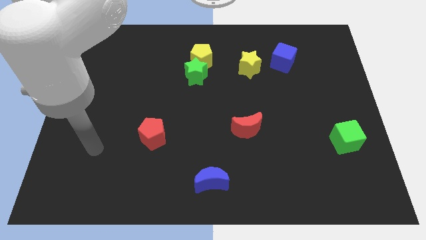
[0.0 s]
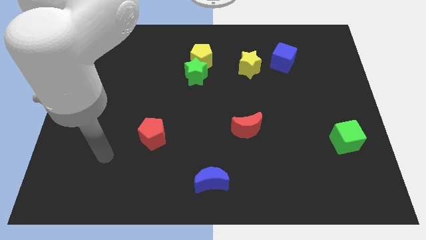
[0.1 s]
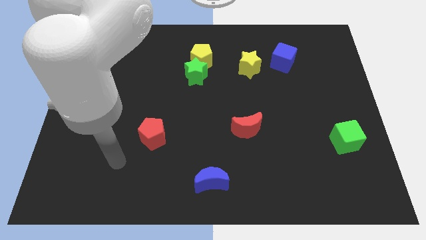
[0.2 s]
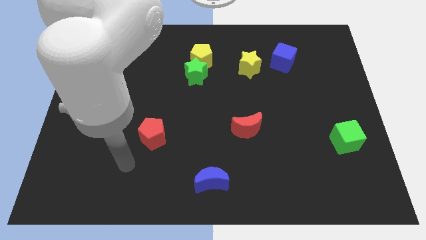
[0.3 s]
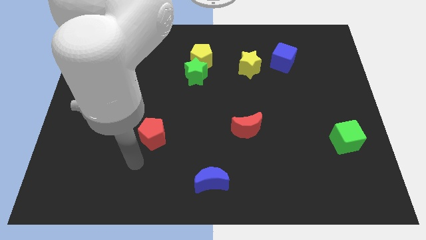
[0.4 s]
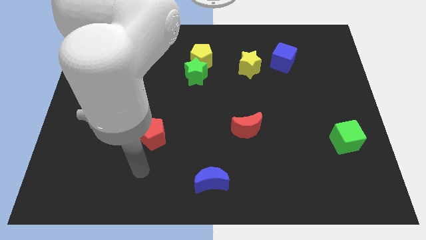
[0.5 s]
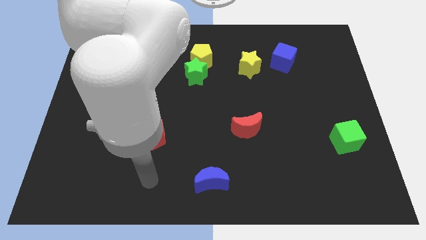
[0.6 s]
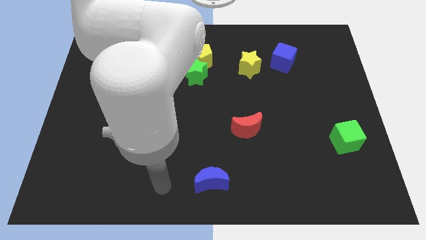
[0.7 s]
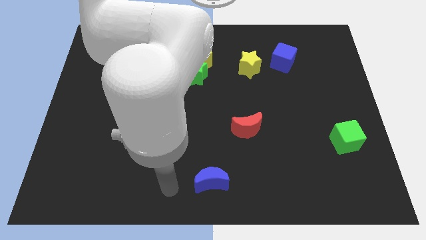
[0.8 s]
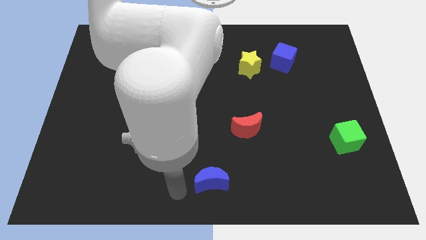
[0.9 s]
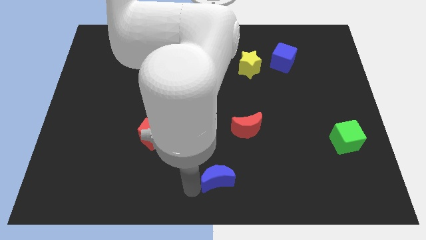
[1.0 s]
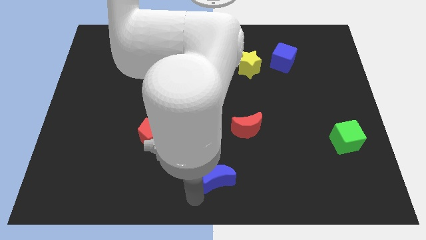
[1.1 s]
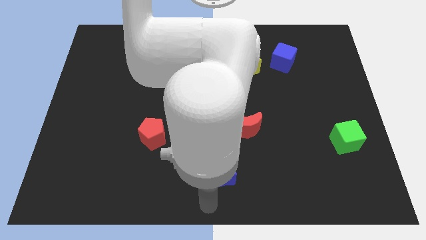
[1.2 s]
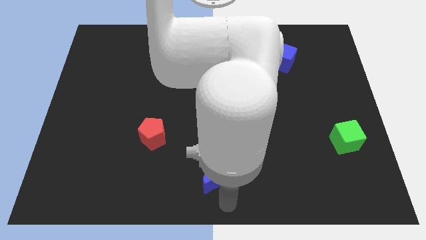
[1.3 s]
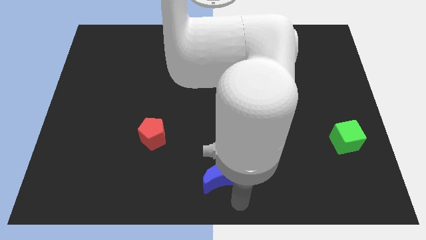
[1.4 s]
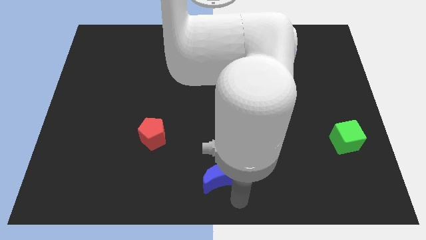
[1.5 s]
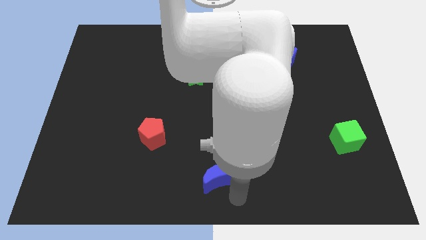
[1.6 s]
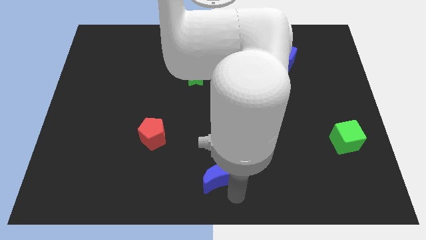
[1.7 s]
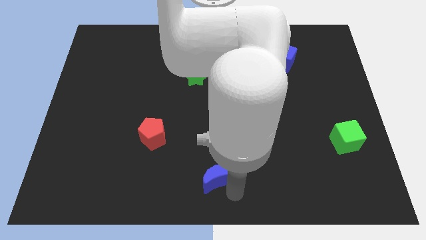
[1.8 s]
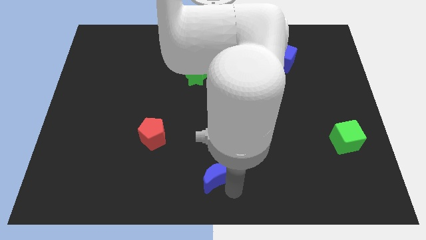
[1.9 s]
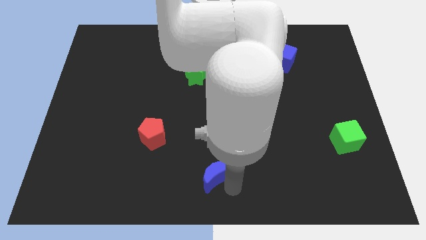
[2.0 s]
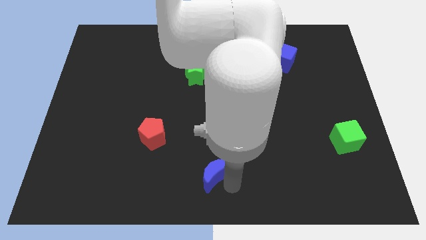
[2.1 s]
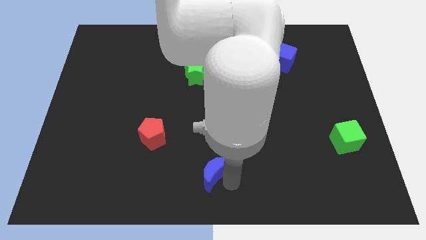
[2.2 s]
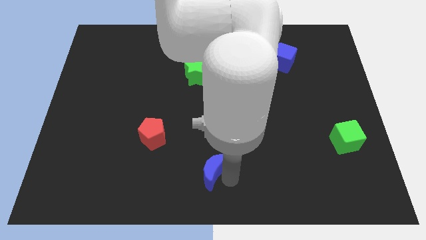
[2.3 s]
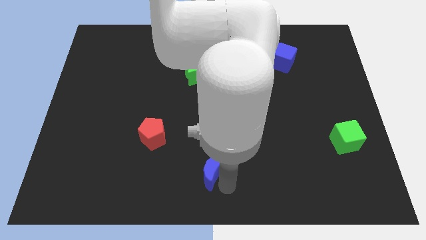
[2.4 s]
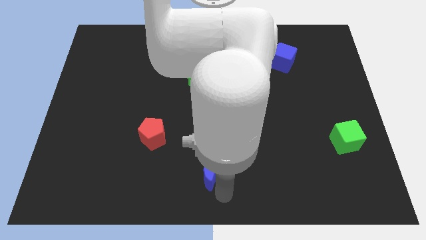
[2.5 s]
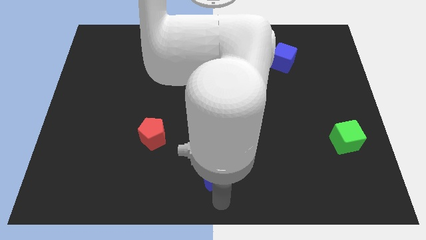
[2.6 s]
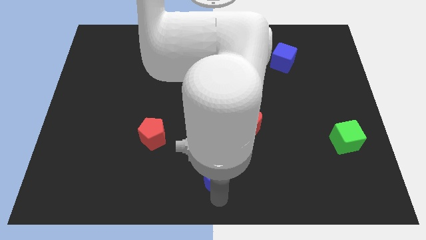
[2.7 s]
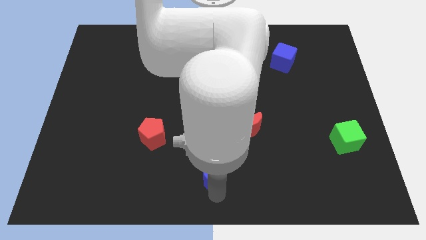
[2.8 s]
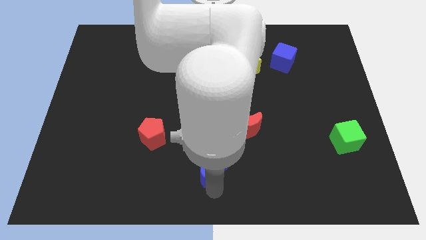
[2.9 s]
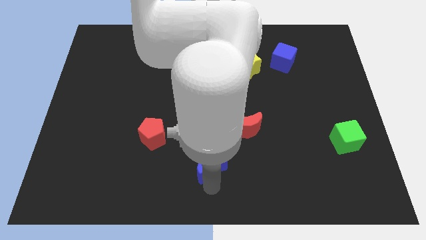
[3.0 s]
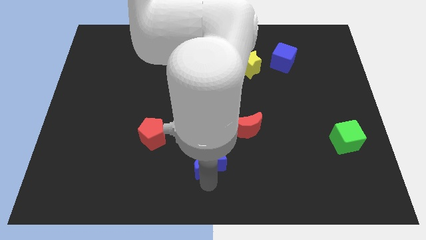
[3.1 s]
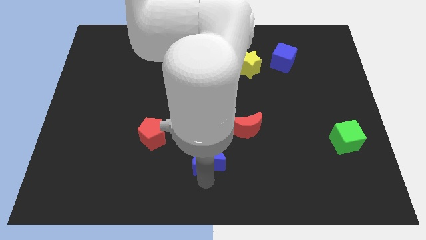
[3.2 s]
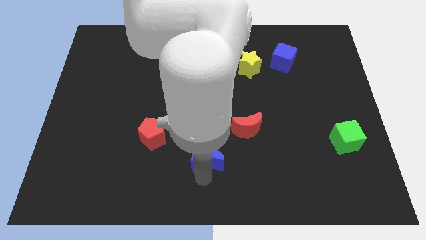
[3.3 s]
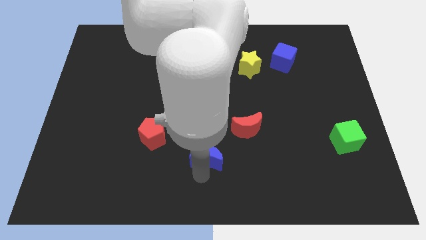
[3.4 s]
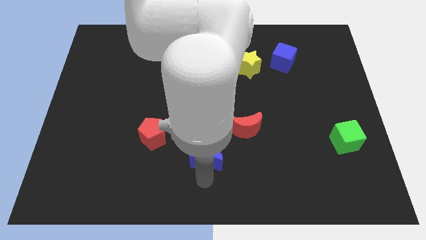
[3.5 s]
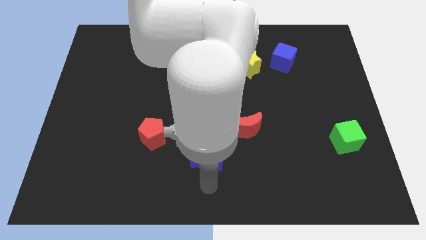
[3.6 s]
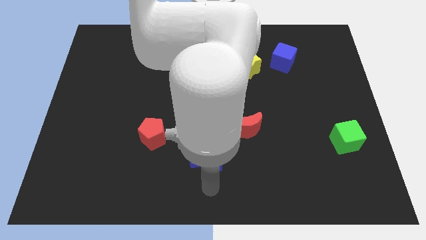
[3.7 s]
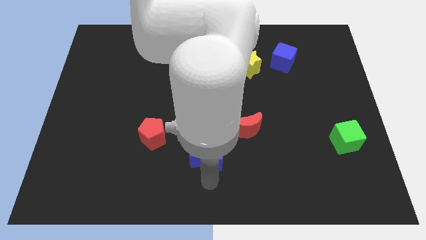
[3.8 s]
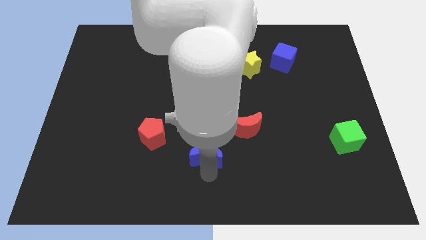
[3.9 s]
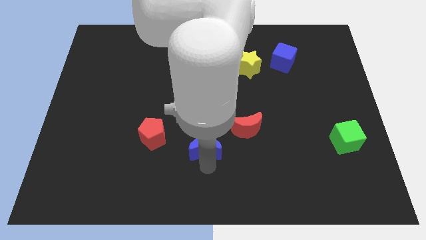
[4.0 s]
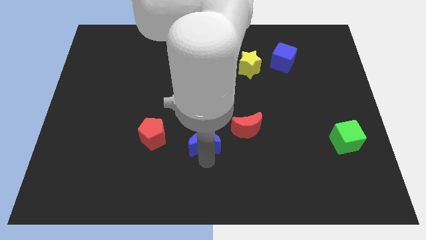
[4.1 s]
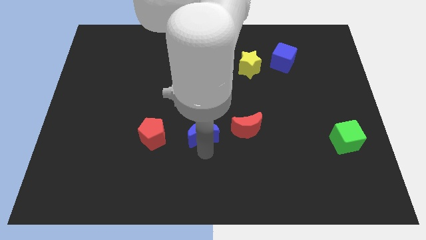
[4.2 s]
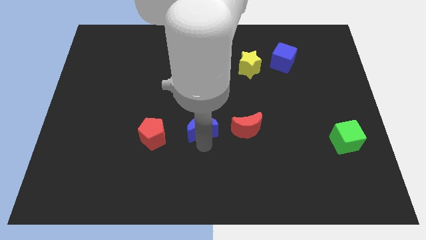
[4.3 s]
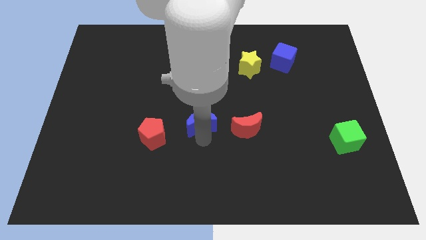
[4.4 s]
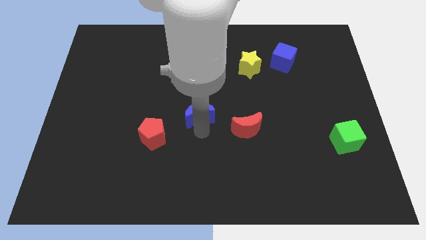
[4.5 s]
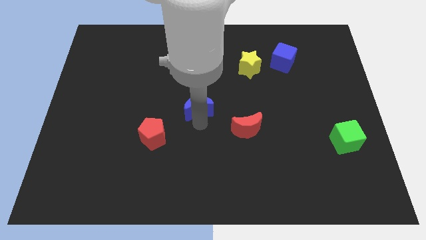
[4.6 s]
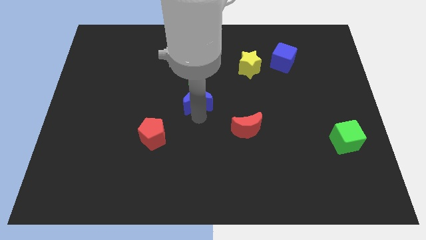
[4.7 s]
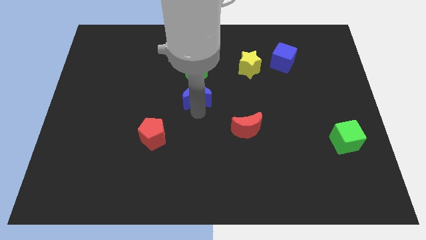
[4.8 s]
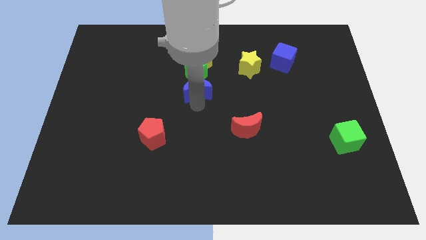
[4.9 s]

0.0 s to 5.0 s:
slide the blue moon to the green star

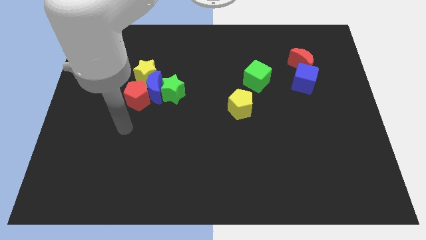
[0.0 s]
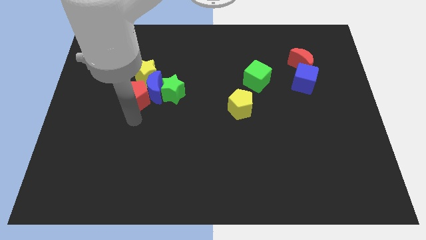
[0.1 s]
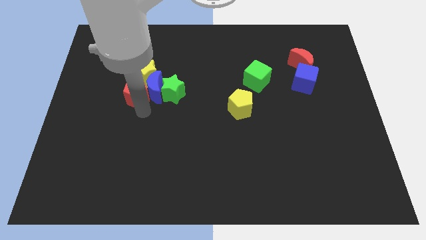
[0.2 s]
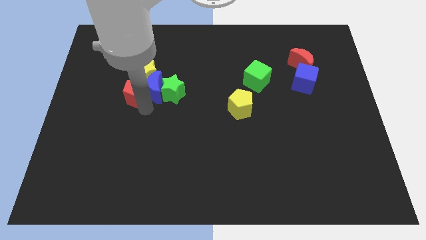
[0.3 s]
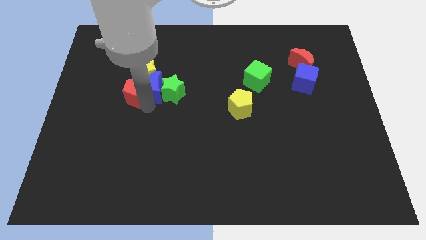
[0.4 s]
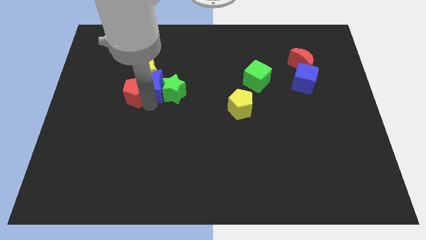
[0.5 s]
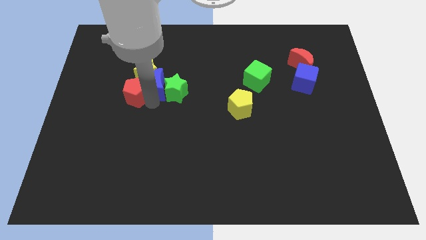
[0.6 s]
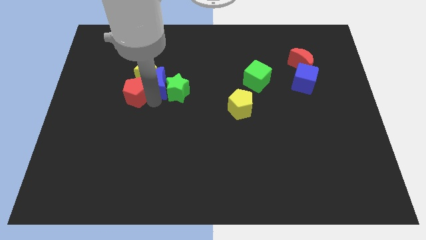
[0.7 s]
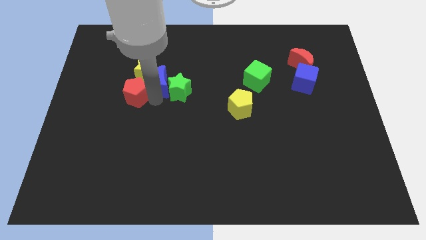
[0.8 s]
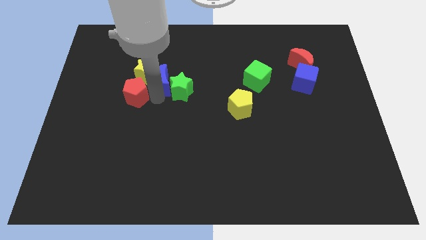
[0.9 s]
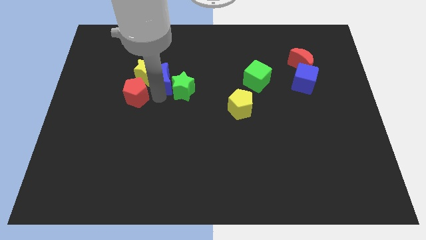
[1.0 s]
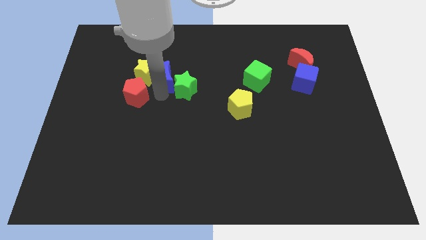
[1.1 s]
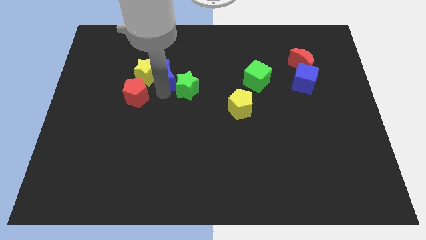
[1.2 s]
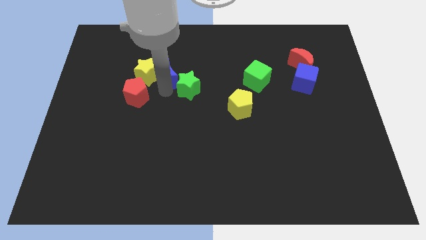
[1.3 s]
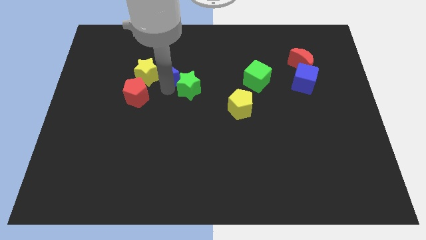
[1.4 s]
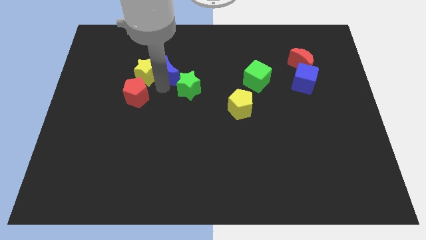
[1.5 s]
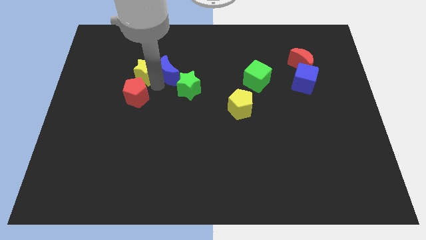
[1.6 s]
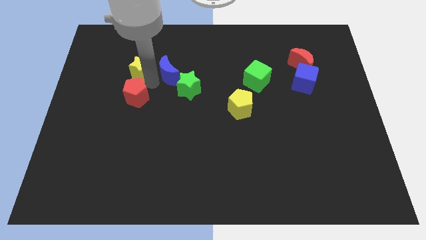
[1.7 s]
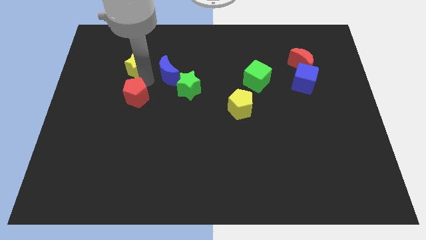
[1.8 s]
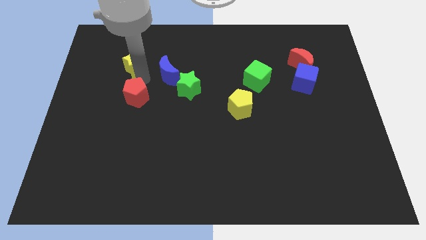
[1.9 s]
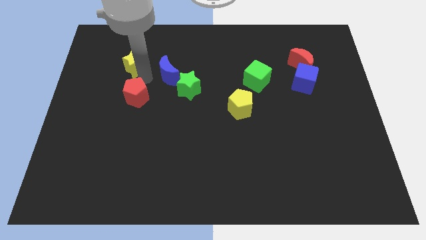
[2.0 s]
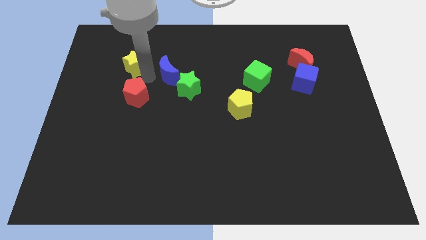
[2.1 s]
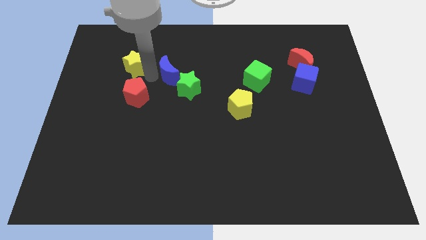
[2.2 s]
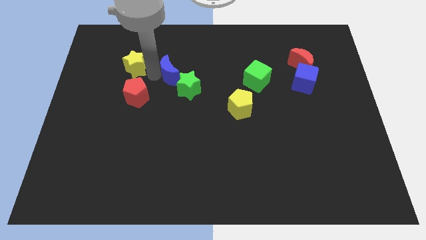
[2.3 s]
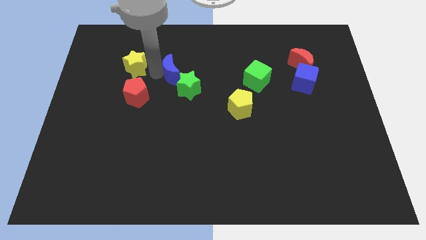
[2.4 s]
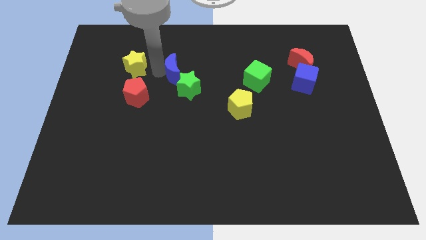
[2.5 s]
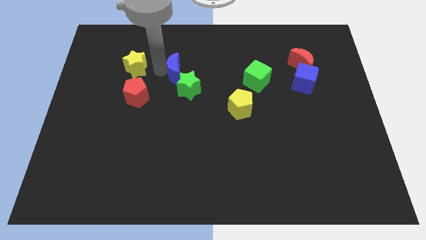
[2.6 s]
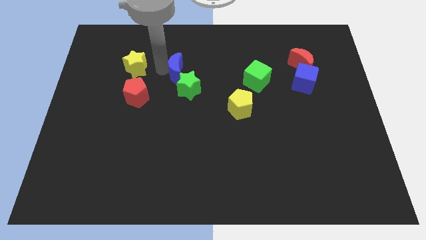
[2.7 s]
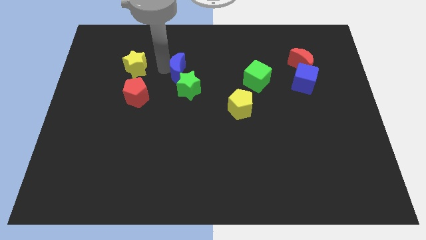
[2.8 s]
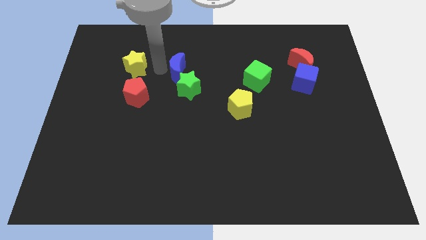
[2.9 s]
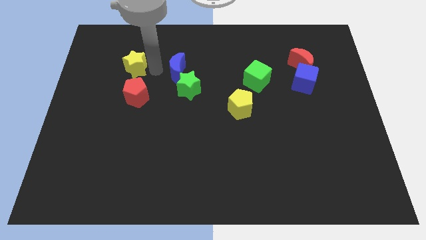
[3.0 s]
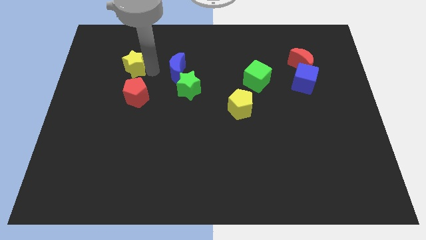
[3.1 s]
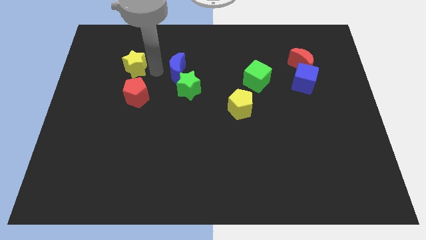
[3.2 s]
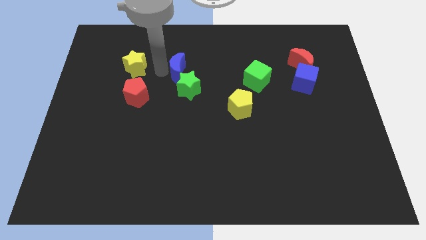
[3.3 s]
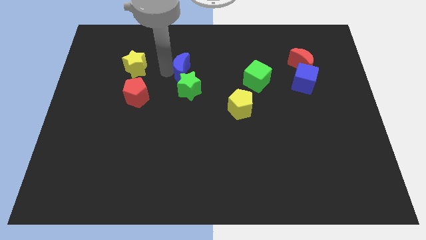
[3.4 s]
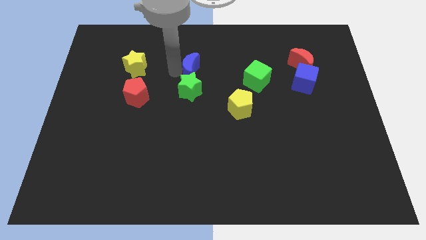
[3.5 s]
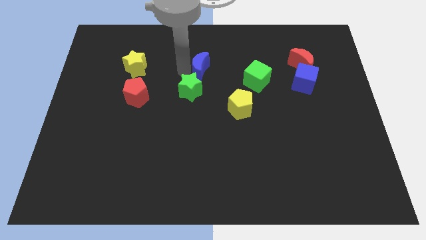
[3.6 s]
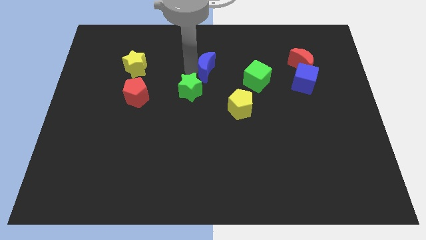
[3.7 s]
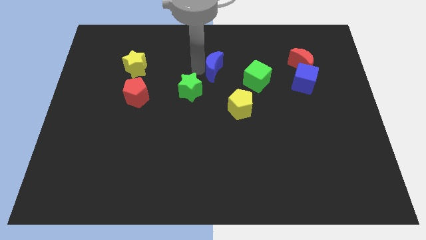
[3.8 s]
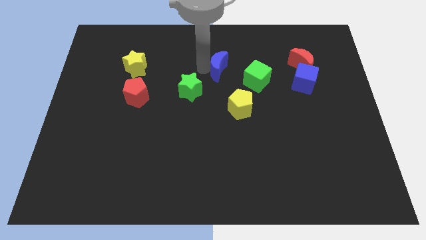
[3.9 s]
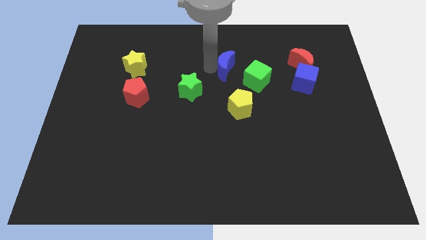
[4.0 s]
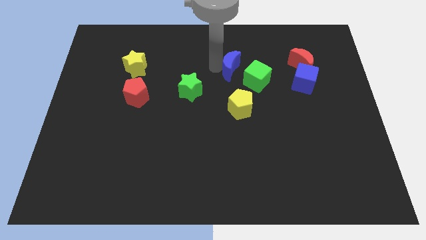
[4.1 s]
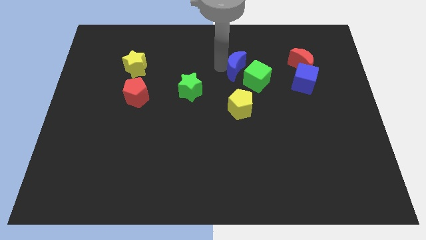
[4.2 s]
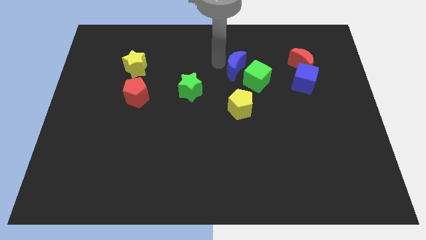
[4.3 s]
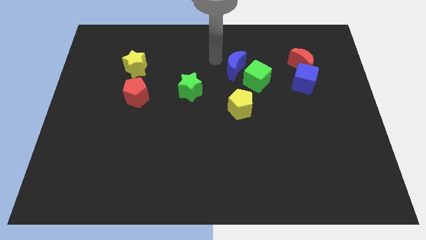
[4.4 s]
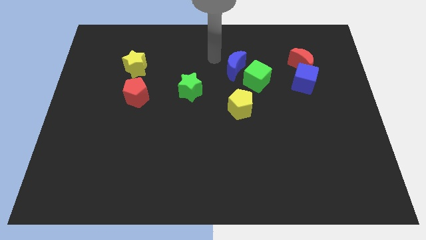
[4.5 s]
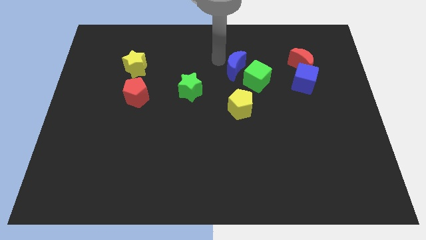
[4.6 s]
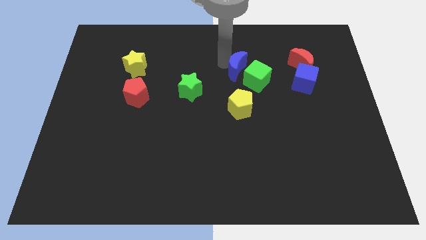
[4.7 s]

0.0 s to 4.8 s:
move the blue moon next to the green cube
